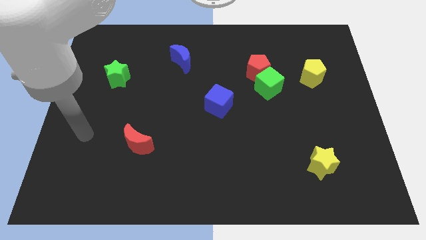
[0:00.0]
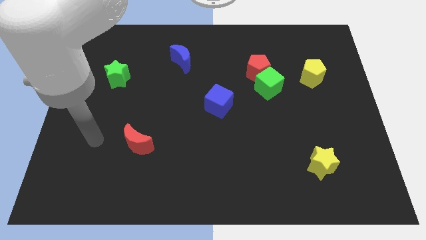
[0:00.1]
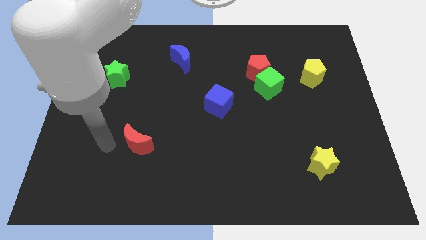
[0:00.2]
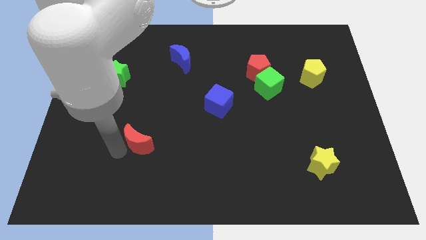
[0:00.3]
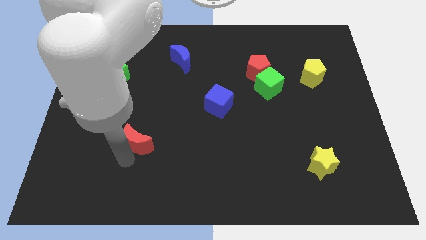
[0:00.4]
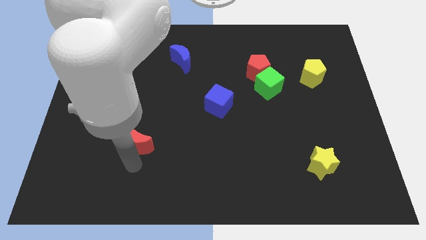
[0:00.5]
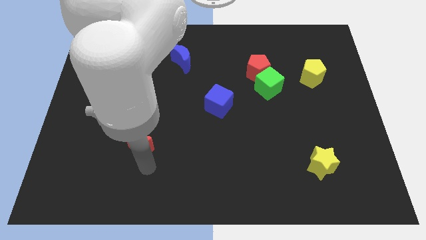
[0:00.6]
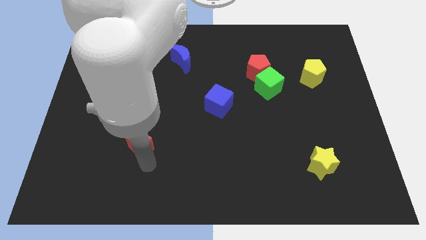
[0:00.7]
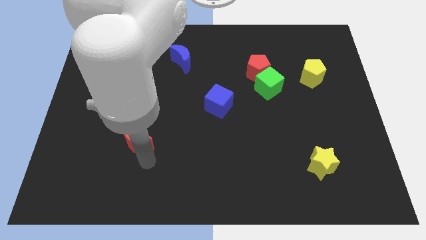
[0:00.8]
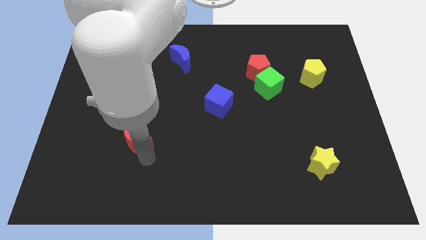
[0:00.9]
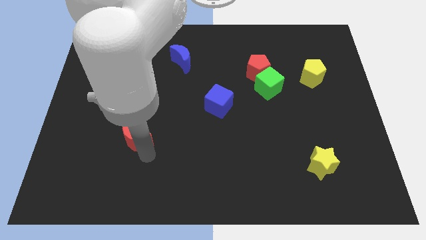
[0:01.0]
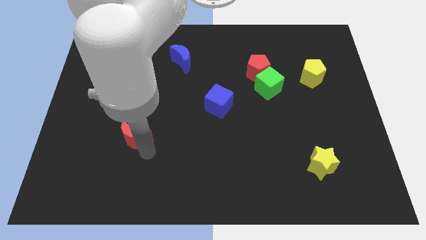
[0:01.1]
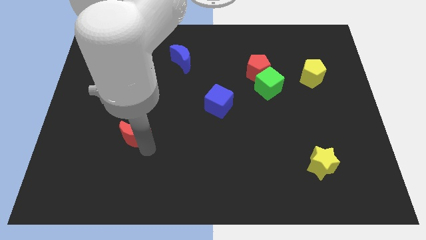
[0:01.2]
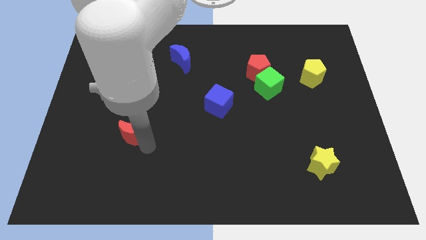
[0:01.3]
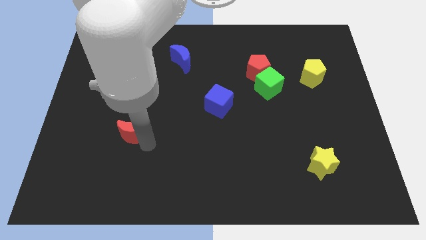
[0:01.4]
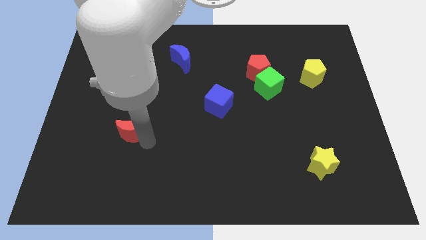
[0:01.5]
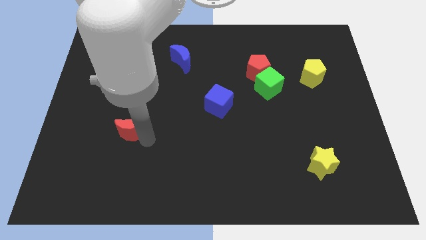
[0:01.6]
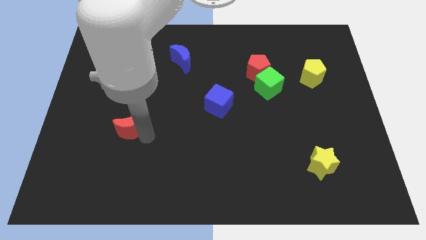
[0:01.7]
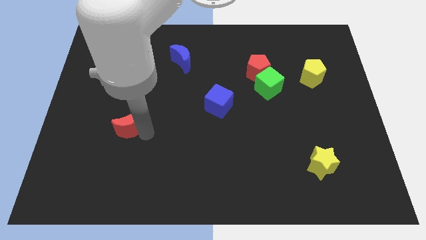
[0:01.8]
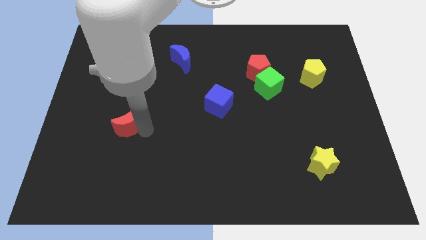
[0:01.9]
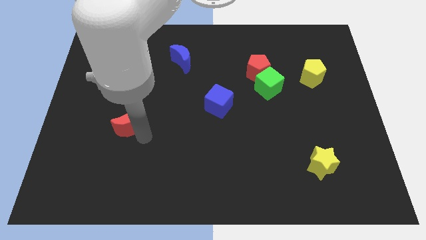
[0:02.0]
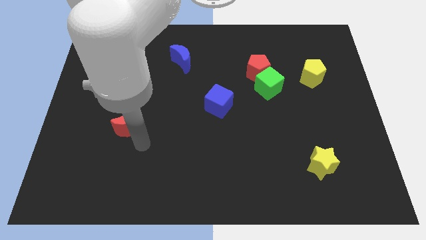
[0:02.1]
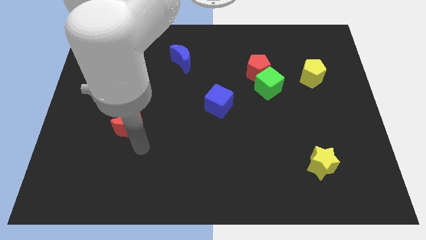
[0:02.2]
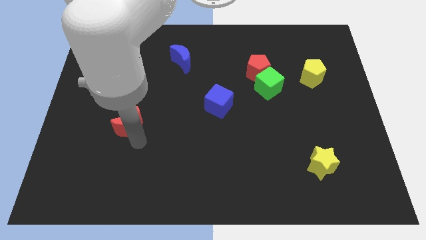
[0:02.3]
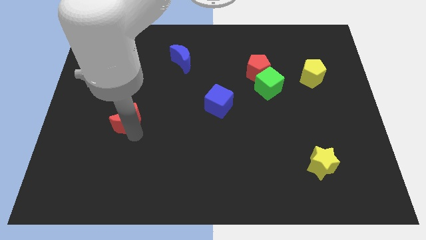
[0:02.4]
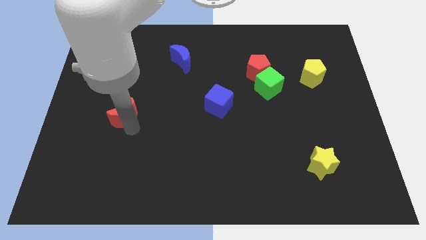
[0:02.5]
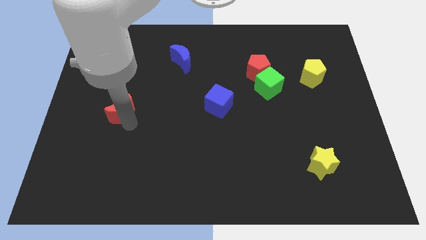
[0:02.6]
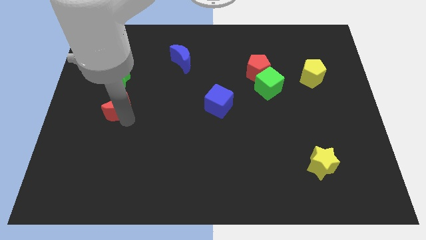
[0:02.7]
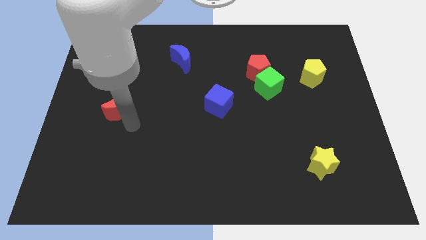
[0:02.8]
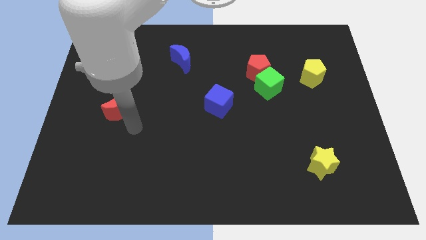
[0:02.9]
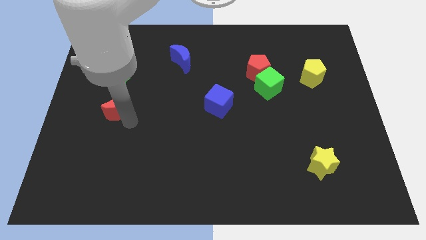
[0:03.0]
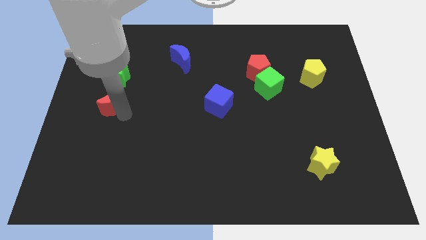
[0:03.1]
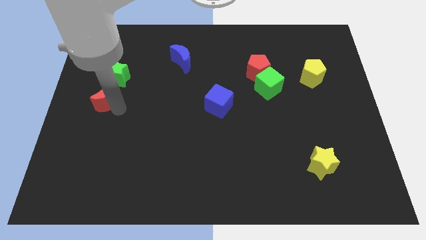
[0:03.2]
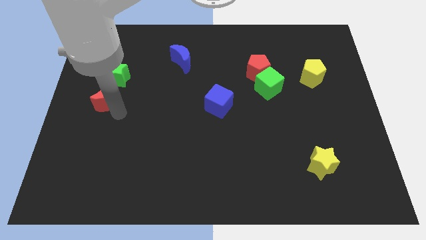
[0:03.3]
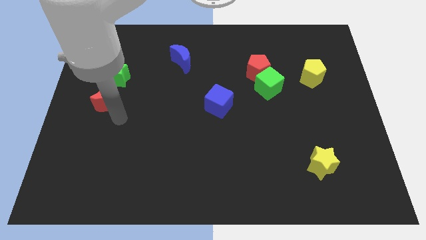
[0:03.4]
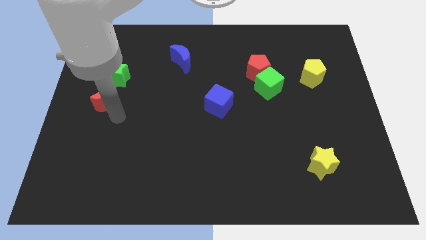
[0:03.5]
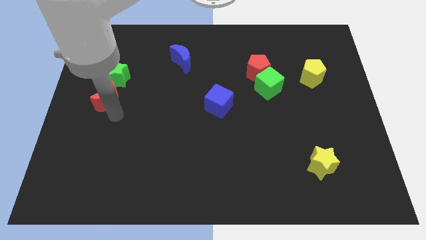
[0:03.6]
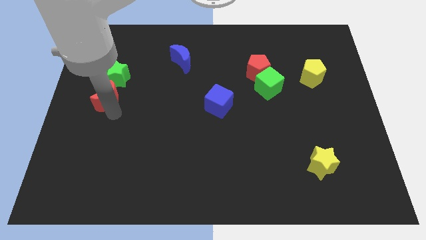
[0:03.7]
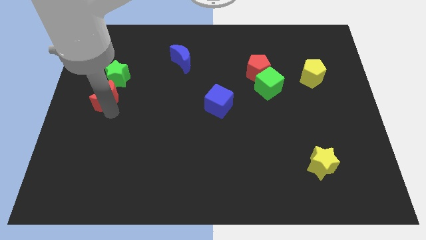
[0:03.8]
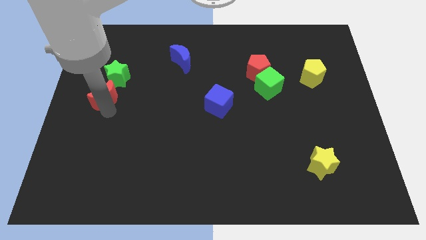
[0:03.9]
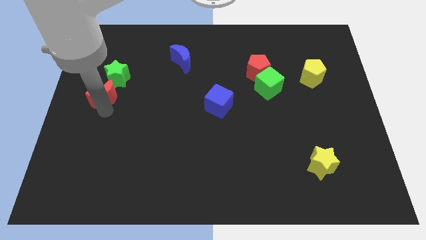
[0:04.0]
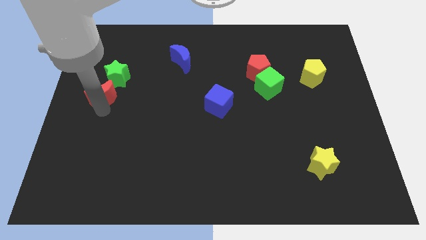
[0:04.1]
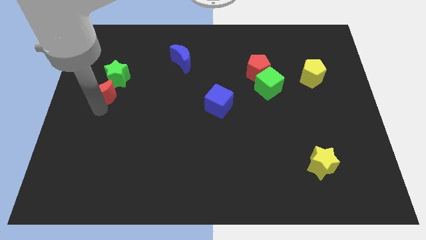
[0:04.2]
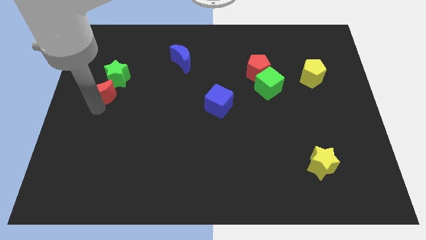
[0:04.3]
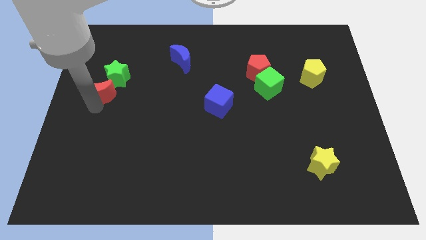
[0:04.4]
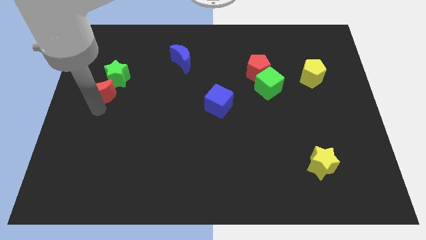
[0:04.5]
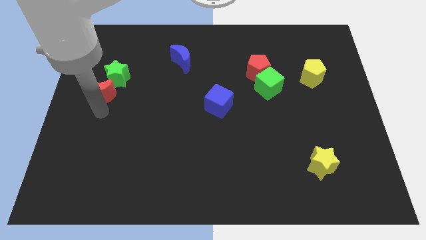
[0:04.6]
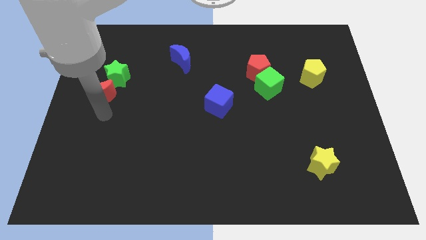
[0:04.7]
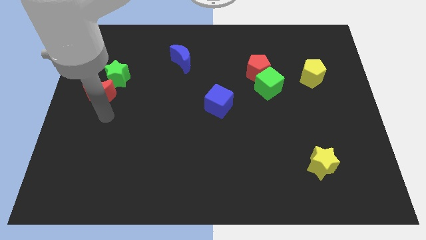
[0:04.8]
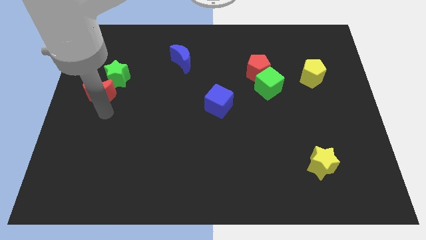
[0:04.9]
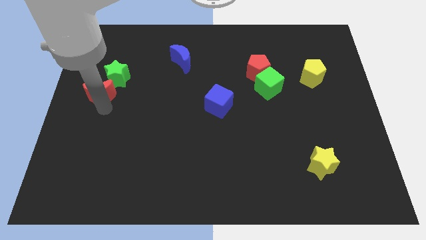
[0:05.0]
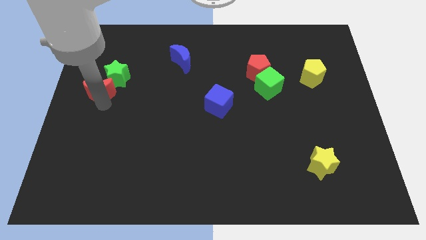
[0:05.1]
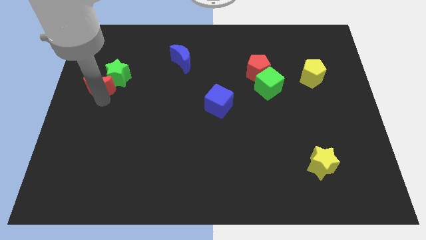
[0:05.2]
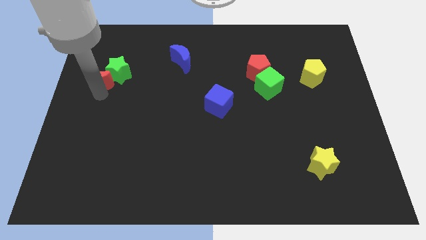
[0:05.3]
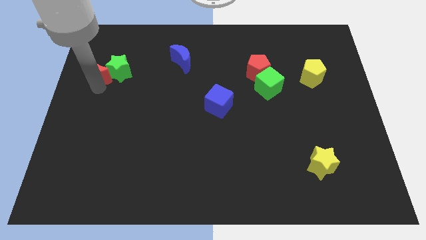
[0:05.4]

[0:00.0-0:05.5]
push the red moon diagonally up and to the left of the green star

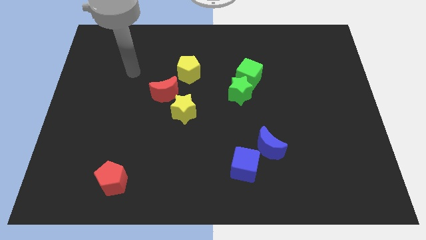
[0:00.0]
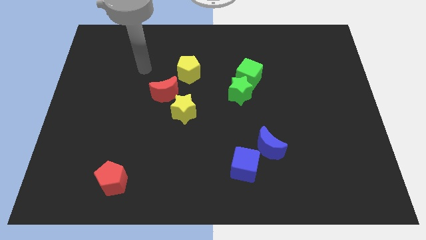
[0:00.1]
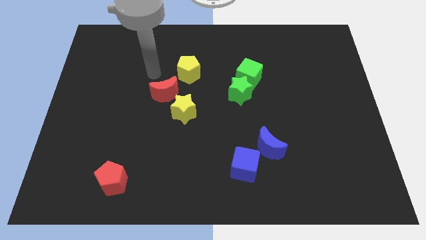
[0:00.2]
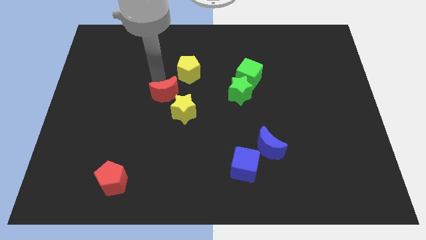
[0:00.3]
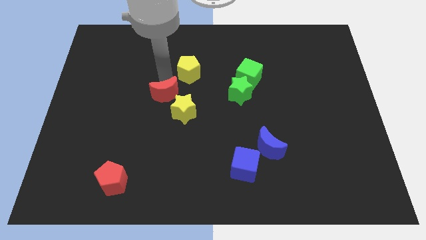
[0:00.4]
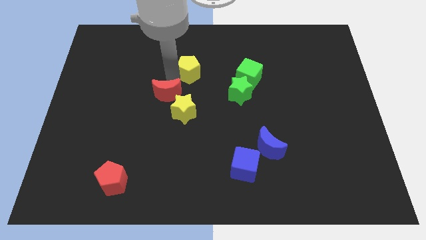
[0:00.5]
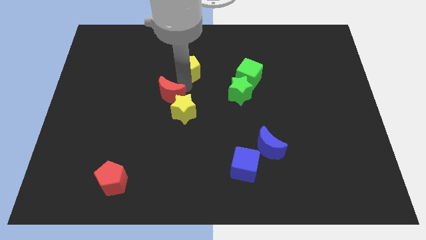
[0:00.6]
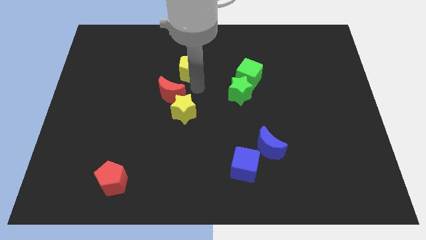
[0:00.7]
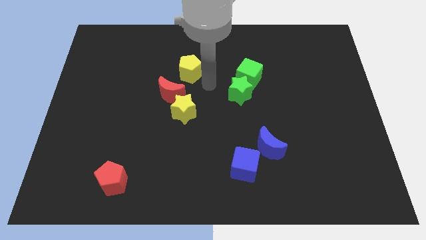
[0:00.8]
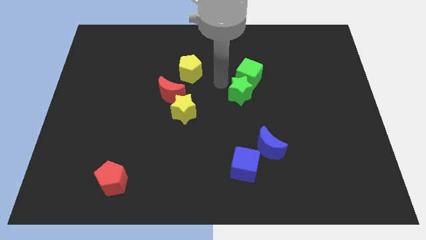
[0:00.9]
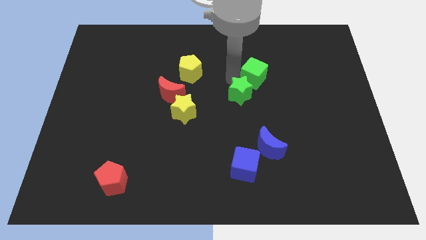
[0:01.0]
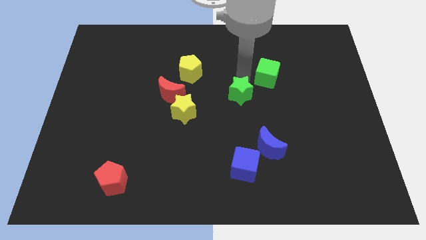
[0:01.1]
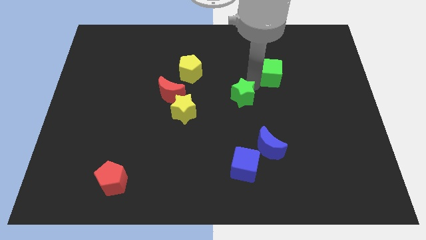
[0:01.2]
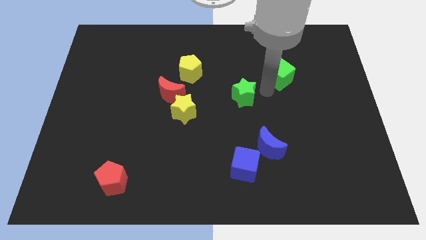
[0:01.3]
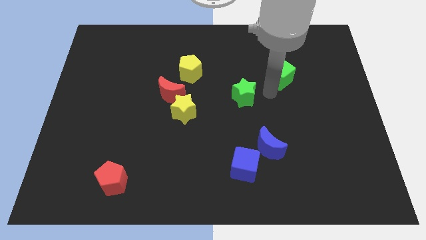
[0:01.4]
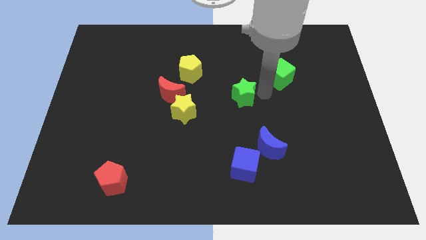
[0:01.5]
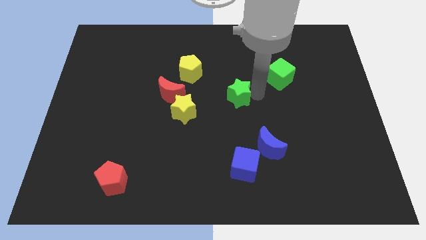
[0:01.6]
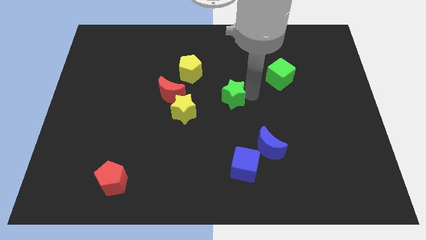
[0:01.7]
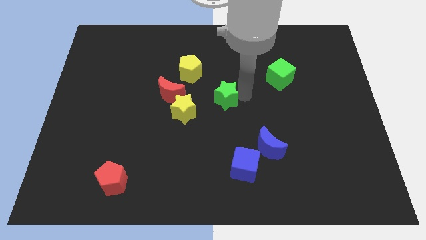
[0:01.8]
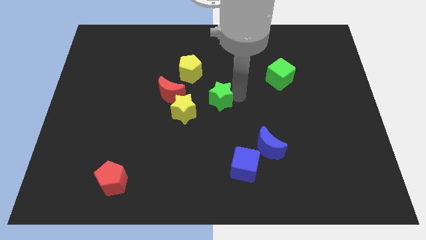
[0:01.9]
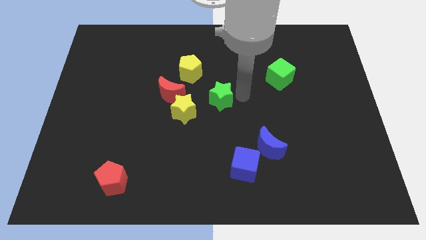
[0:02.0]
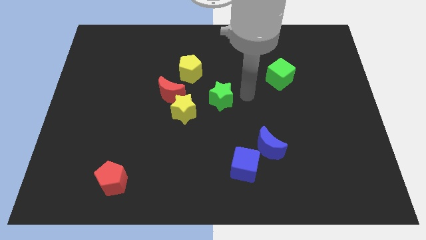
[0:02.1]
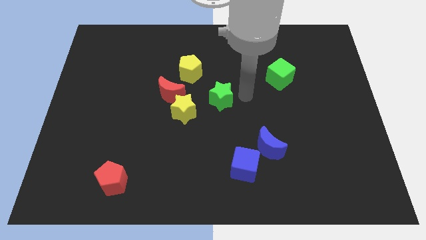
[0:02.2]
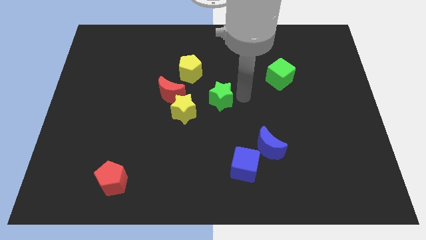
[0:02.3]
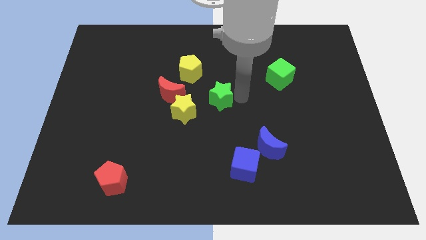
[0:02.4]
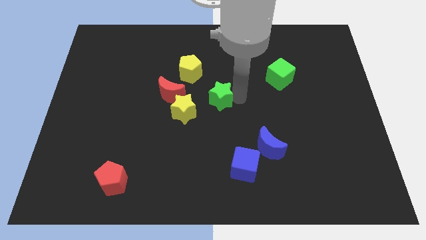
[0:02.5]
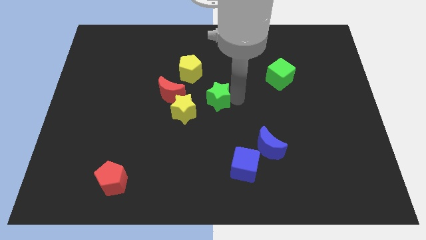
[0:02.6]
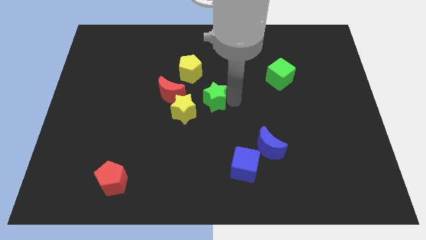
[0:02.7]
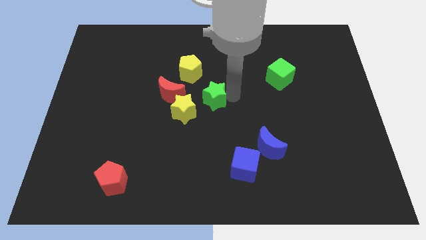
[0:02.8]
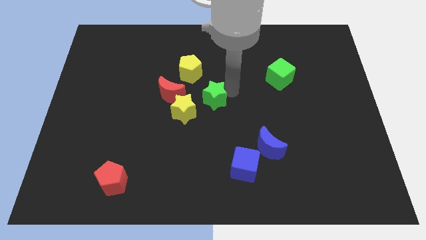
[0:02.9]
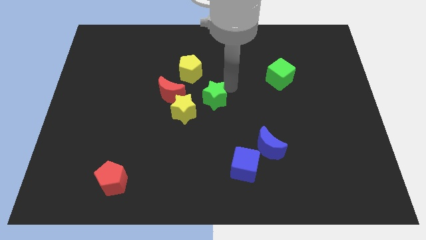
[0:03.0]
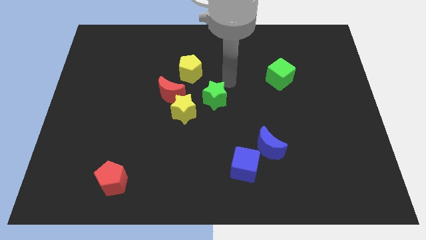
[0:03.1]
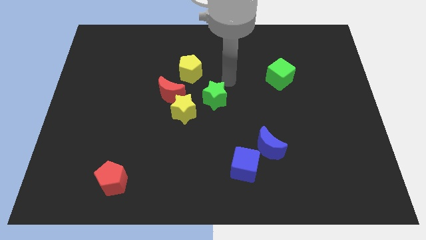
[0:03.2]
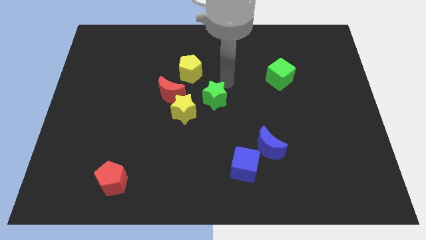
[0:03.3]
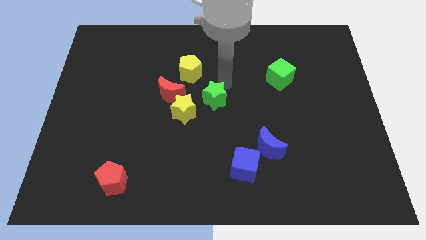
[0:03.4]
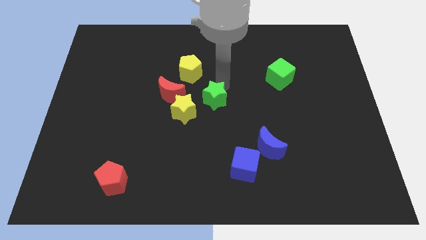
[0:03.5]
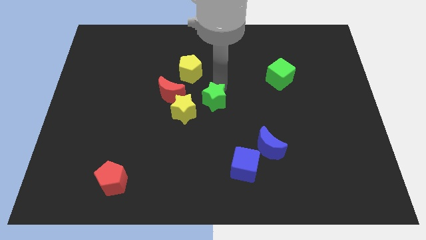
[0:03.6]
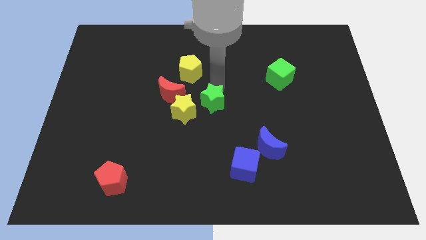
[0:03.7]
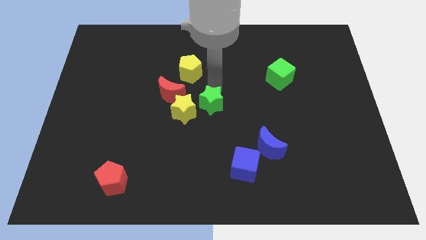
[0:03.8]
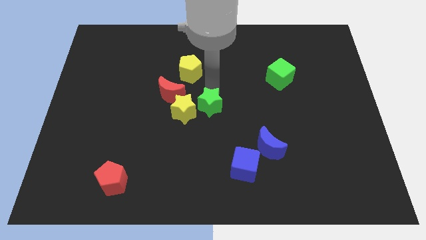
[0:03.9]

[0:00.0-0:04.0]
slide the green star to the bottom right side of the red moon
